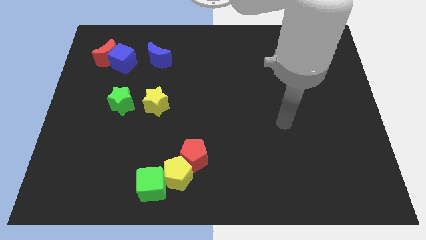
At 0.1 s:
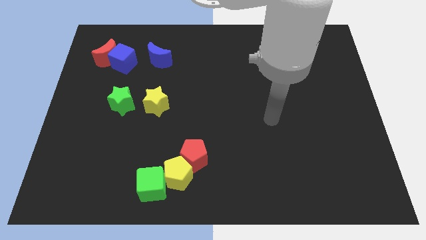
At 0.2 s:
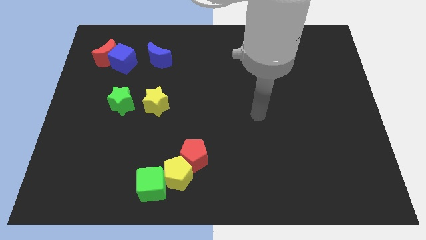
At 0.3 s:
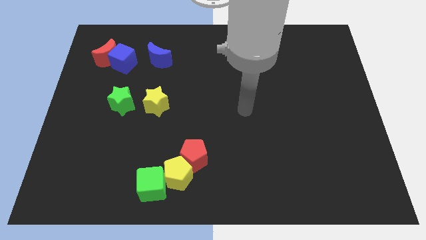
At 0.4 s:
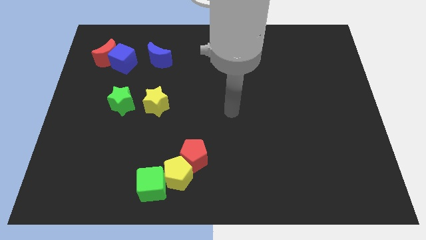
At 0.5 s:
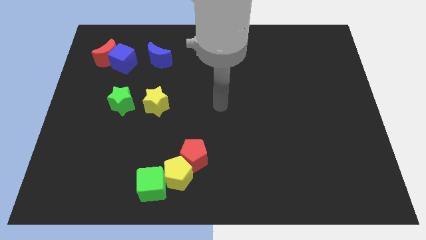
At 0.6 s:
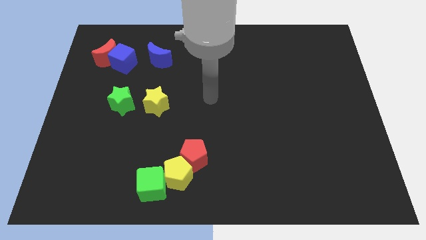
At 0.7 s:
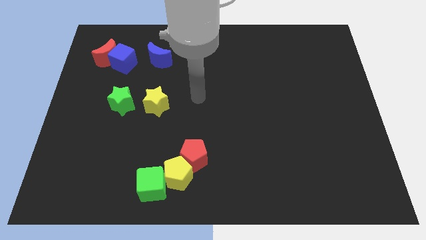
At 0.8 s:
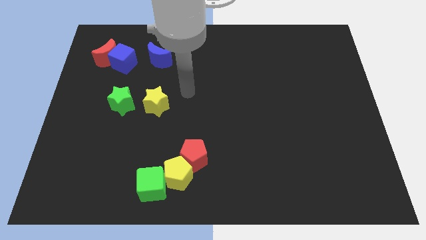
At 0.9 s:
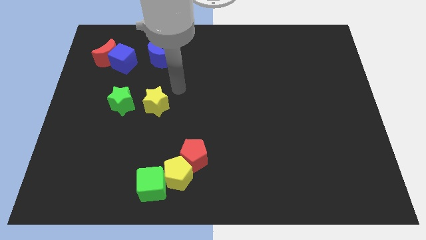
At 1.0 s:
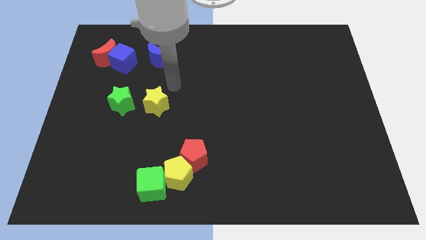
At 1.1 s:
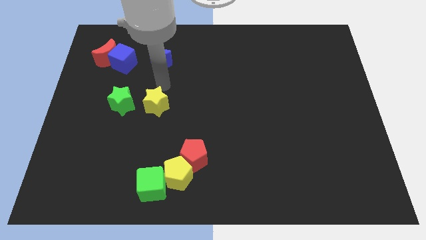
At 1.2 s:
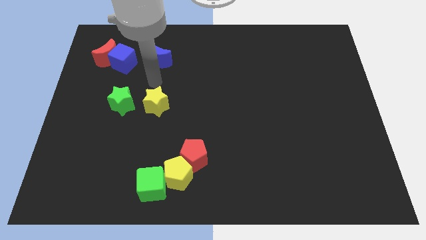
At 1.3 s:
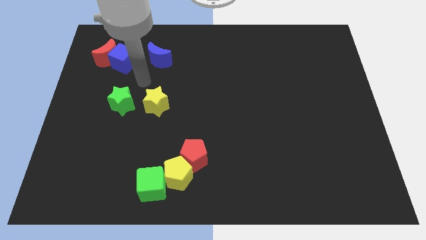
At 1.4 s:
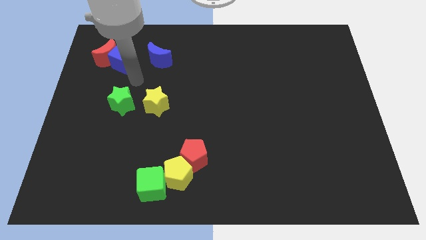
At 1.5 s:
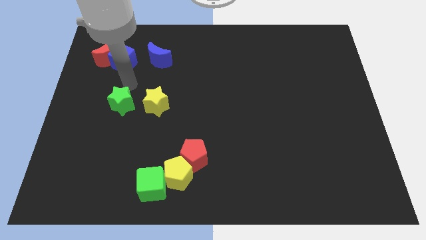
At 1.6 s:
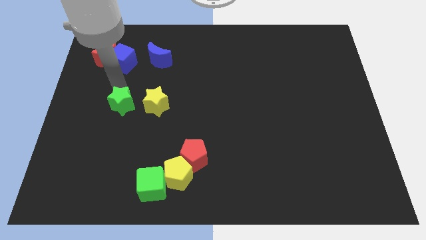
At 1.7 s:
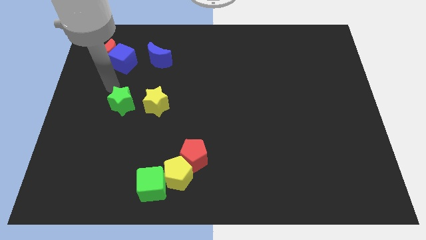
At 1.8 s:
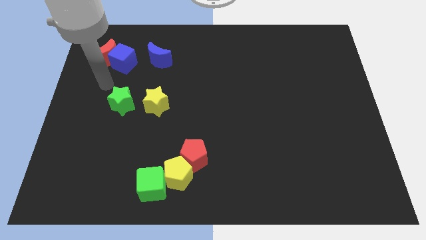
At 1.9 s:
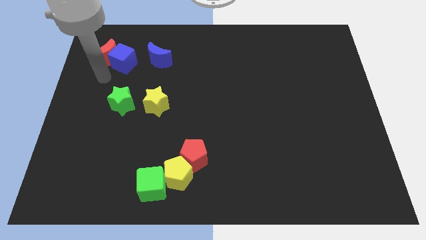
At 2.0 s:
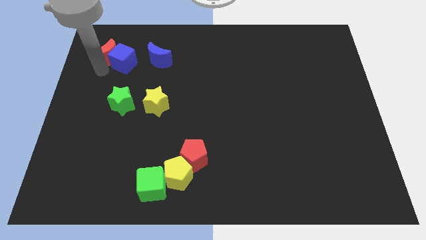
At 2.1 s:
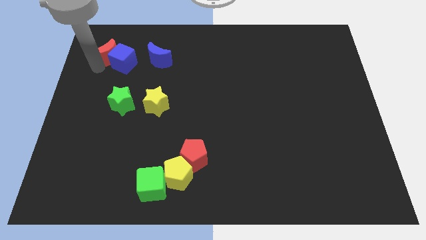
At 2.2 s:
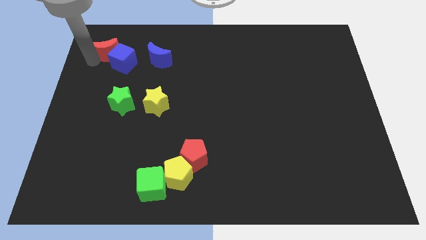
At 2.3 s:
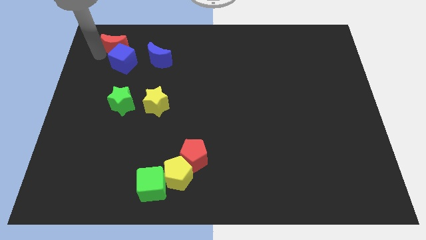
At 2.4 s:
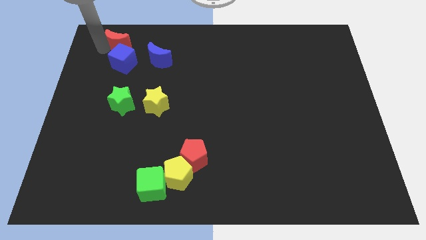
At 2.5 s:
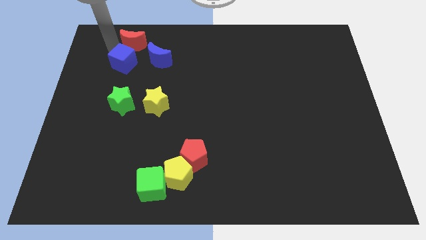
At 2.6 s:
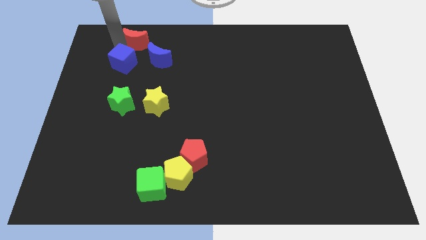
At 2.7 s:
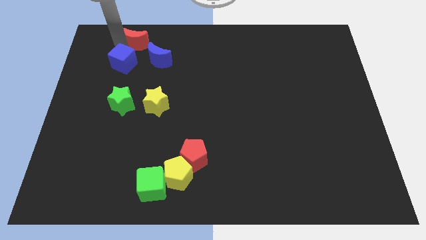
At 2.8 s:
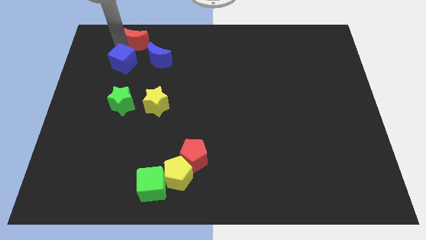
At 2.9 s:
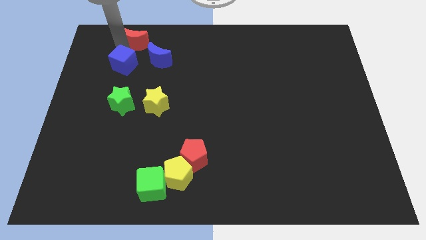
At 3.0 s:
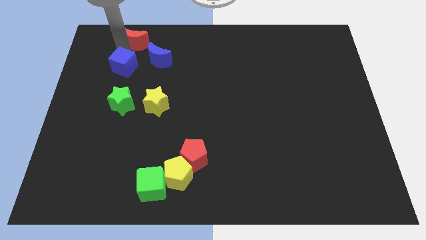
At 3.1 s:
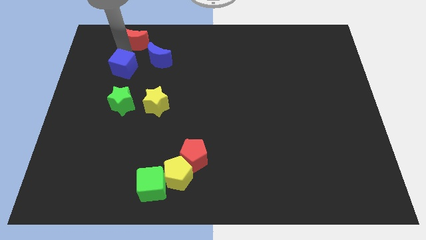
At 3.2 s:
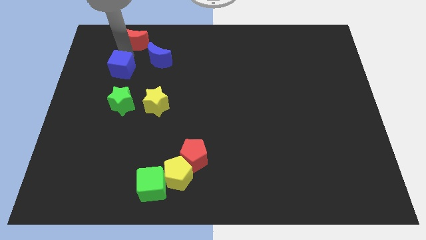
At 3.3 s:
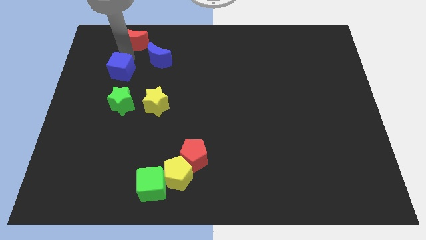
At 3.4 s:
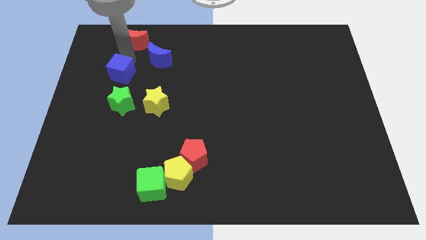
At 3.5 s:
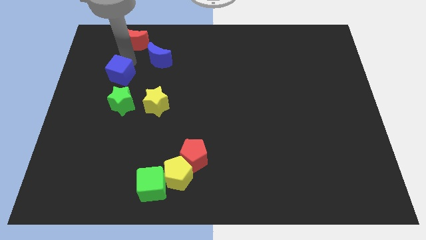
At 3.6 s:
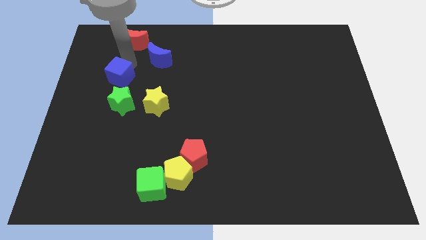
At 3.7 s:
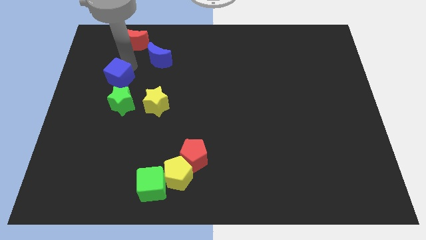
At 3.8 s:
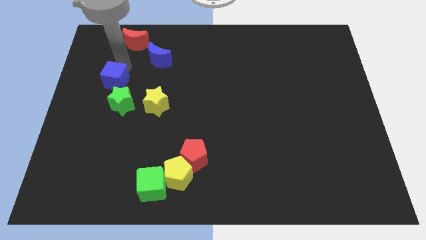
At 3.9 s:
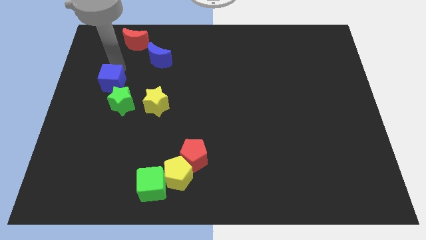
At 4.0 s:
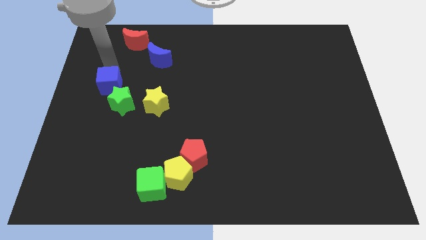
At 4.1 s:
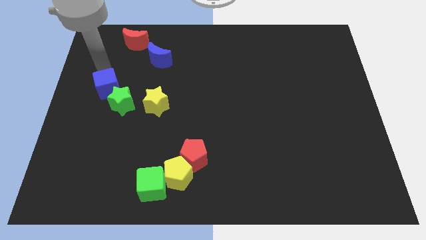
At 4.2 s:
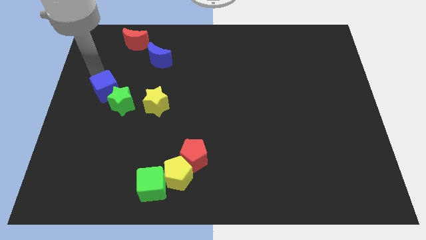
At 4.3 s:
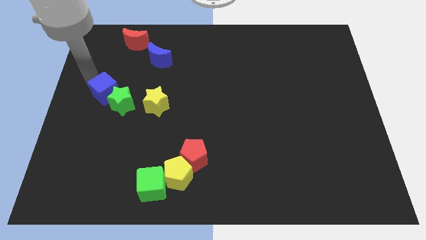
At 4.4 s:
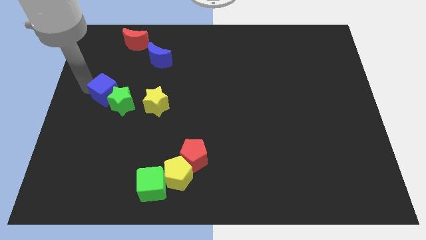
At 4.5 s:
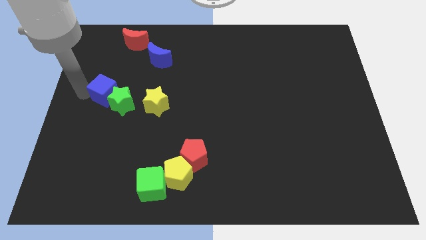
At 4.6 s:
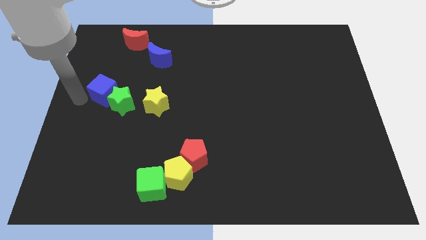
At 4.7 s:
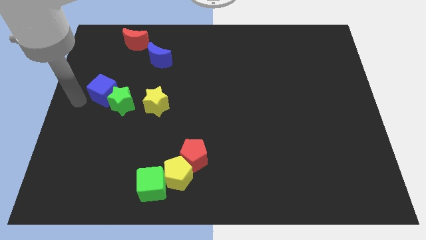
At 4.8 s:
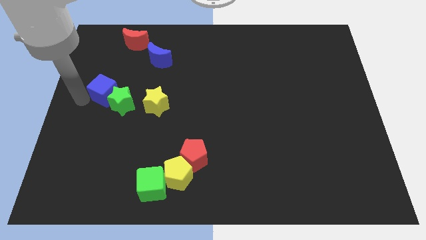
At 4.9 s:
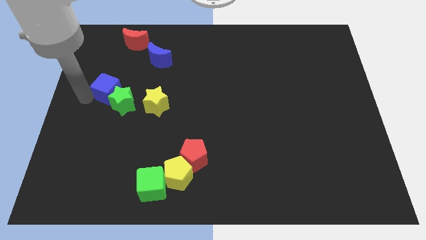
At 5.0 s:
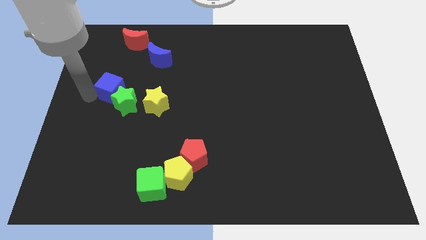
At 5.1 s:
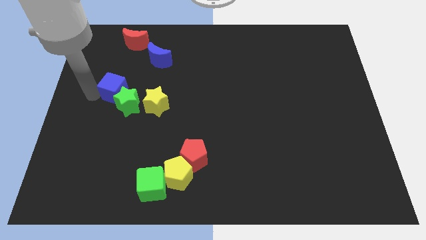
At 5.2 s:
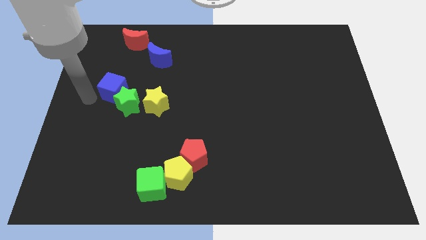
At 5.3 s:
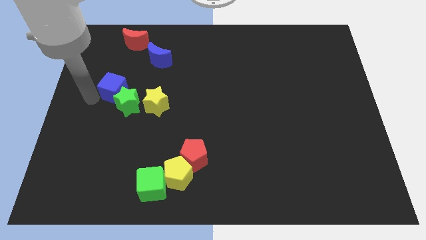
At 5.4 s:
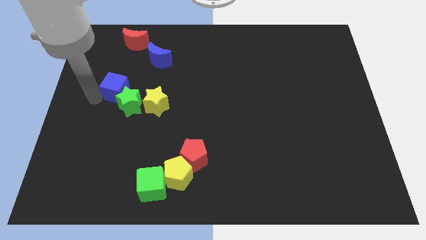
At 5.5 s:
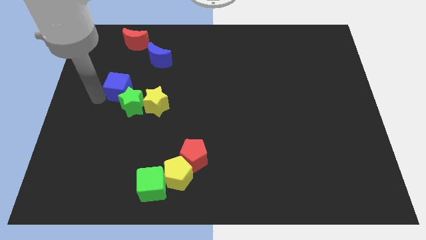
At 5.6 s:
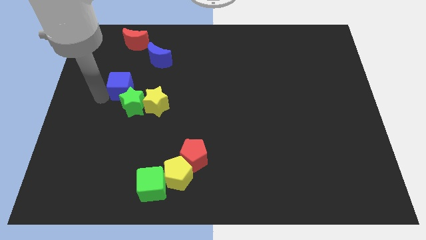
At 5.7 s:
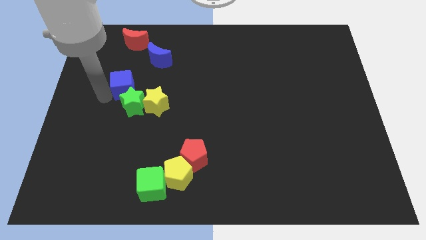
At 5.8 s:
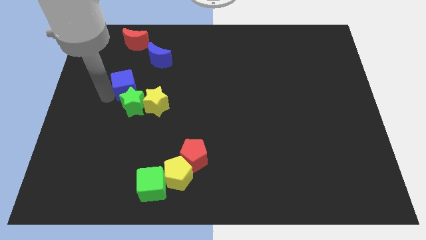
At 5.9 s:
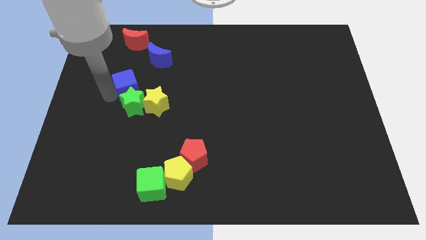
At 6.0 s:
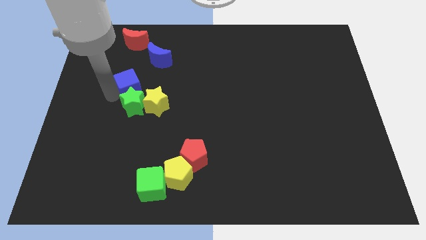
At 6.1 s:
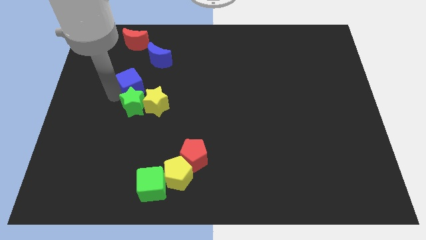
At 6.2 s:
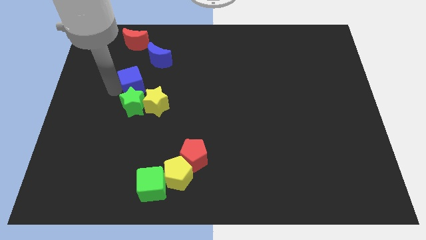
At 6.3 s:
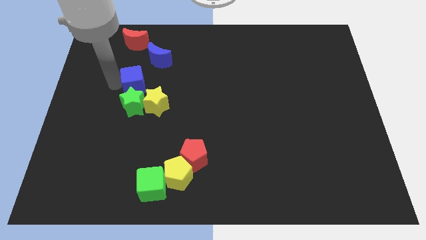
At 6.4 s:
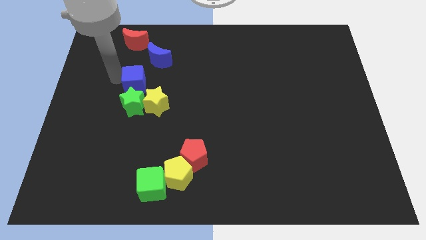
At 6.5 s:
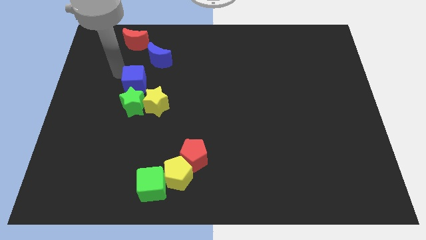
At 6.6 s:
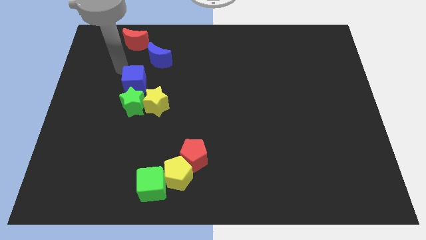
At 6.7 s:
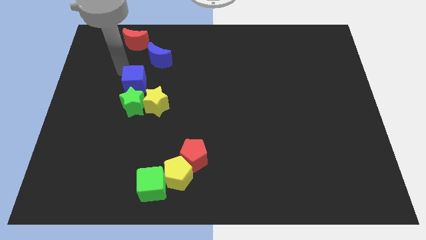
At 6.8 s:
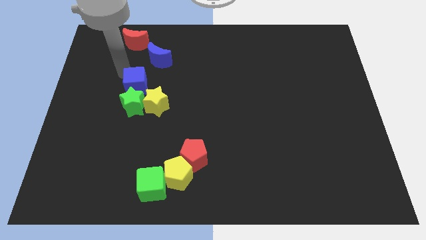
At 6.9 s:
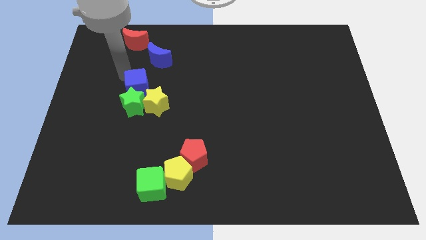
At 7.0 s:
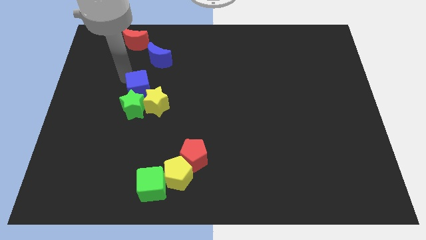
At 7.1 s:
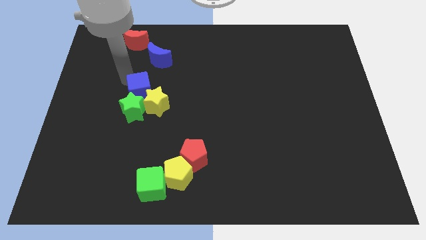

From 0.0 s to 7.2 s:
slide the blue cube next to the yellow star
